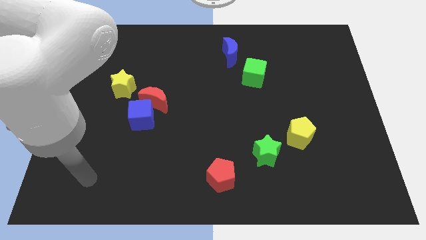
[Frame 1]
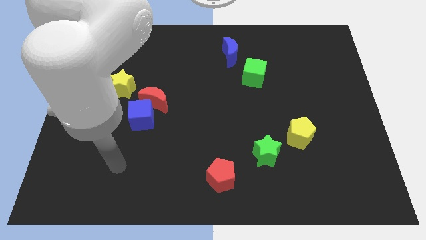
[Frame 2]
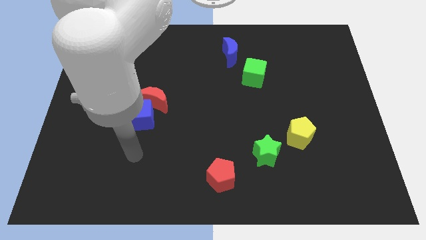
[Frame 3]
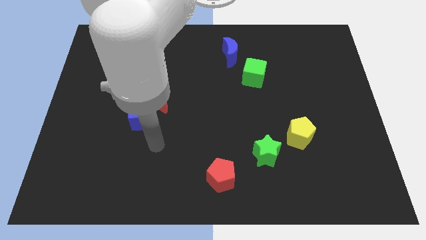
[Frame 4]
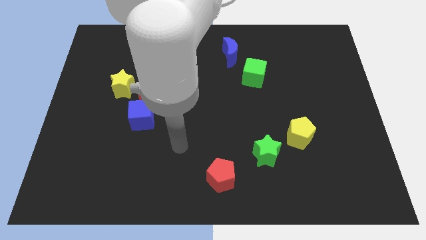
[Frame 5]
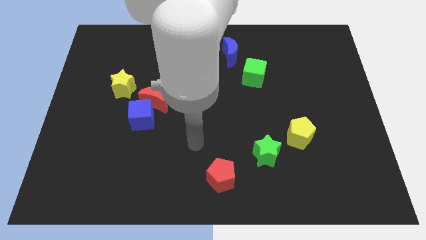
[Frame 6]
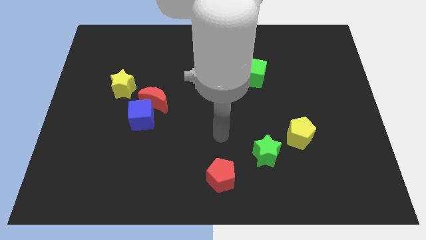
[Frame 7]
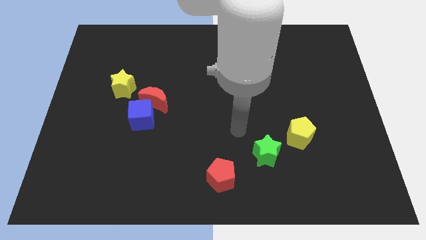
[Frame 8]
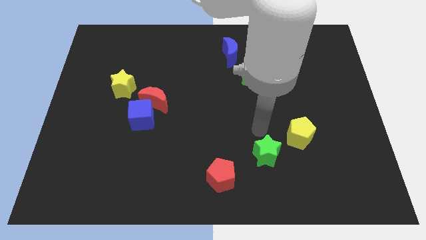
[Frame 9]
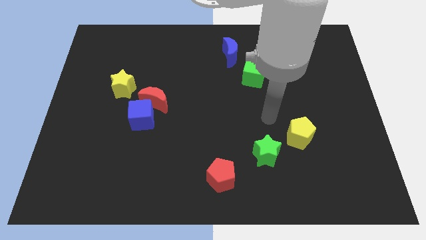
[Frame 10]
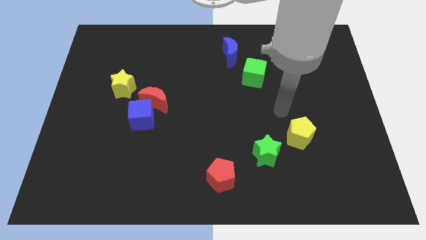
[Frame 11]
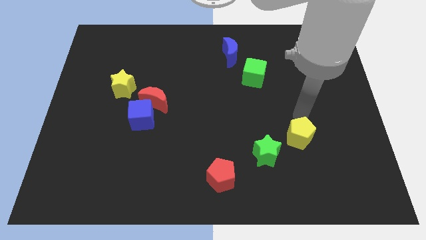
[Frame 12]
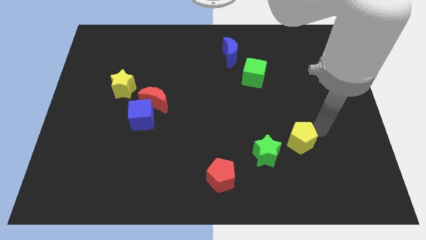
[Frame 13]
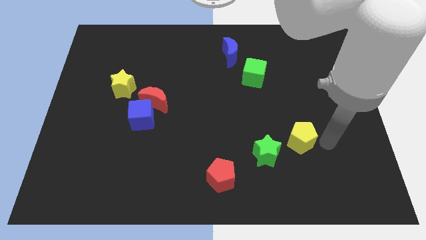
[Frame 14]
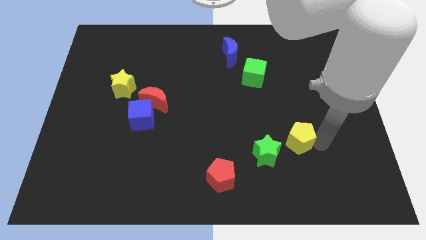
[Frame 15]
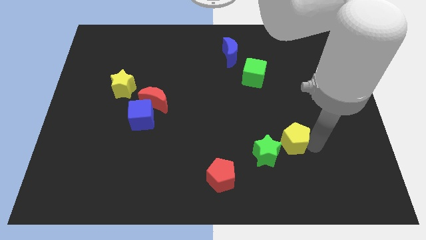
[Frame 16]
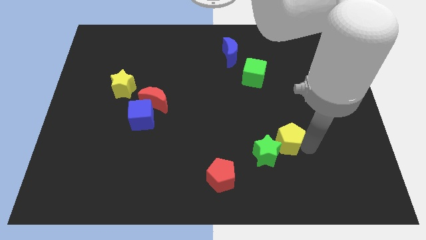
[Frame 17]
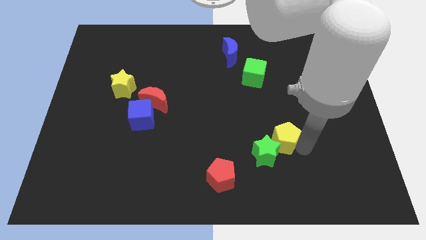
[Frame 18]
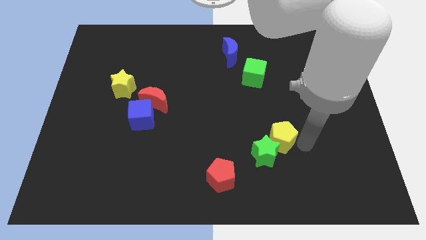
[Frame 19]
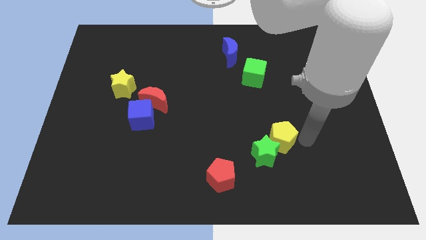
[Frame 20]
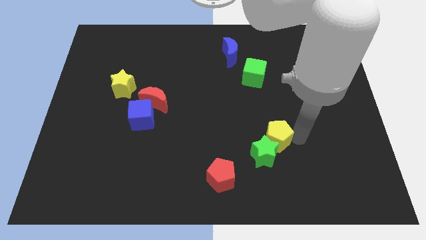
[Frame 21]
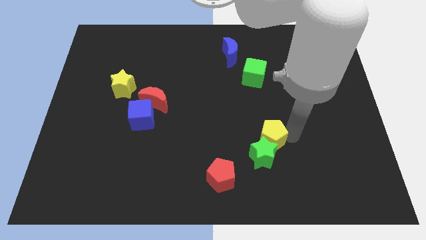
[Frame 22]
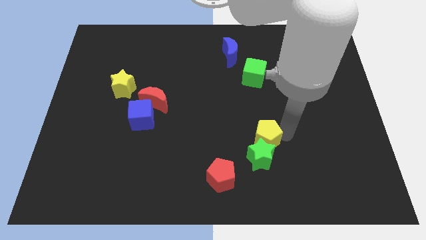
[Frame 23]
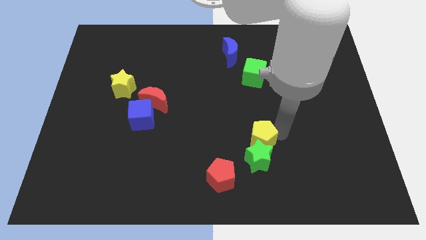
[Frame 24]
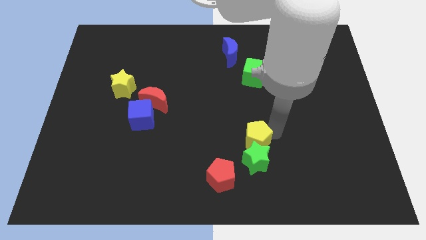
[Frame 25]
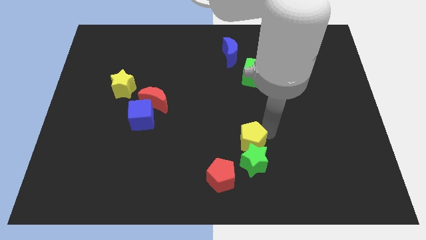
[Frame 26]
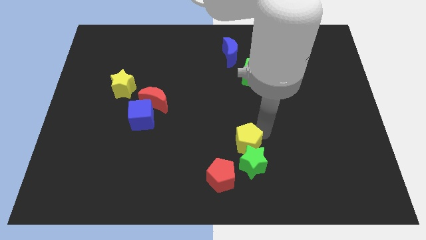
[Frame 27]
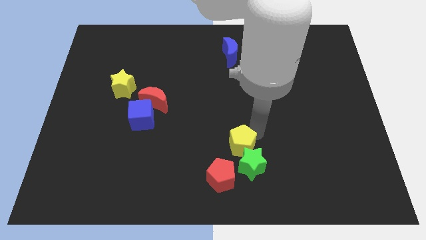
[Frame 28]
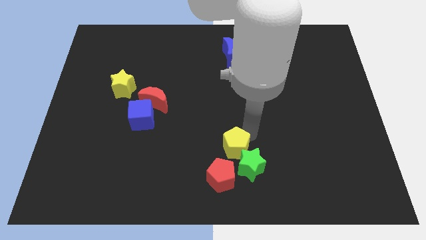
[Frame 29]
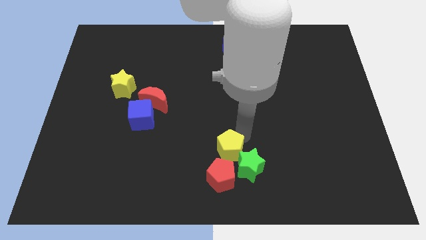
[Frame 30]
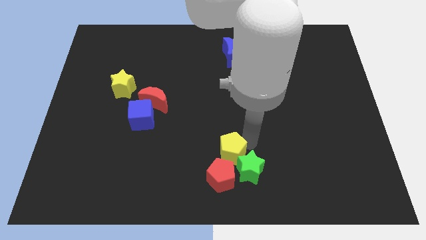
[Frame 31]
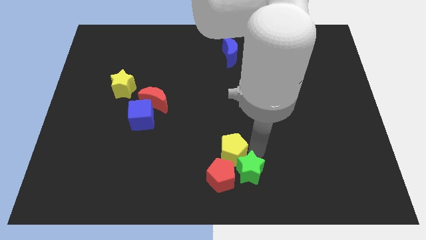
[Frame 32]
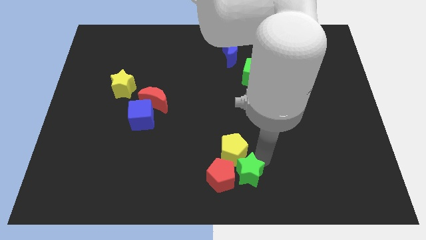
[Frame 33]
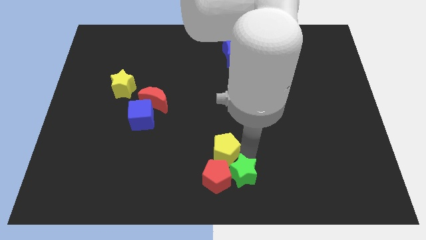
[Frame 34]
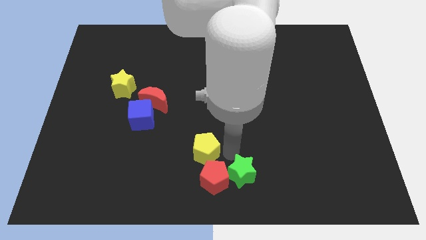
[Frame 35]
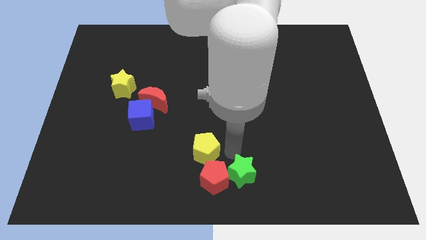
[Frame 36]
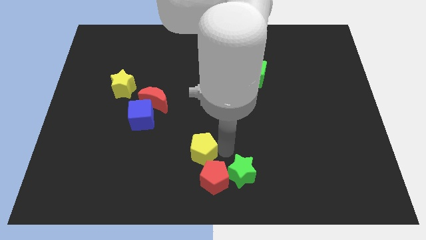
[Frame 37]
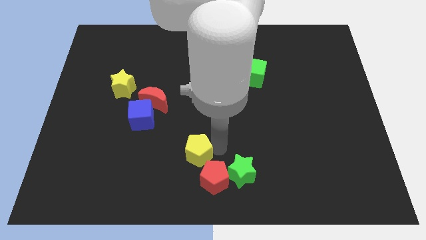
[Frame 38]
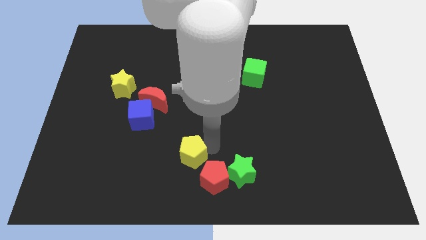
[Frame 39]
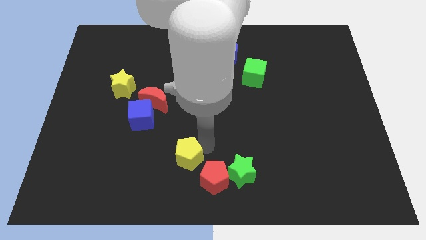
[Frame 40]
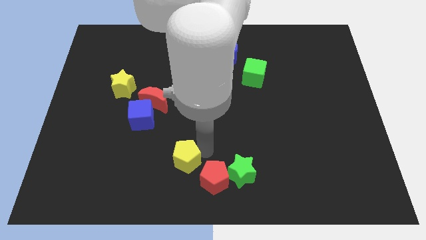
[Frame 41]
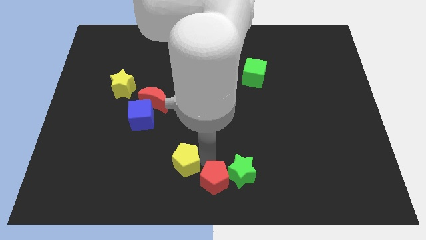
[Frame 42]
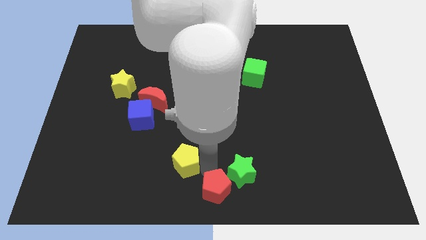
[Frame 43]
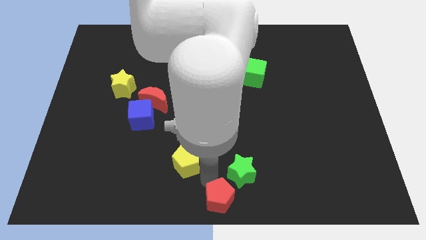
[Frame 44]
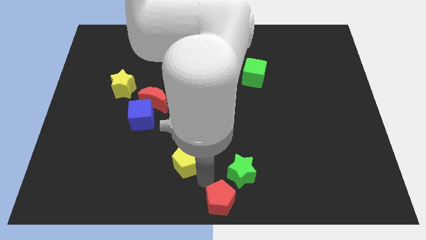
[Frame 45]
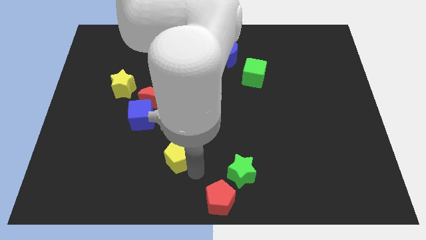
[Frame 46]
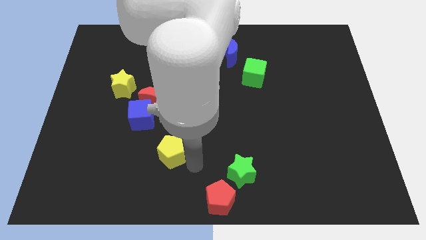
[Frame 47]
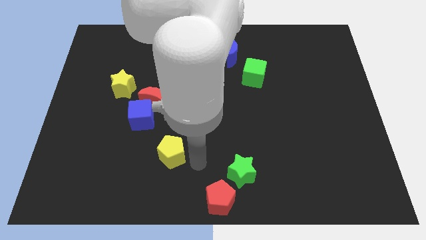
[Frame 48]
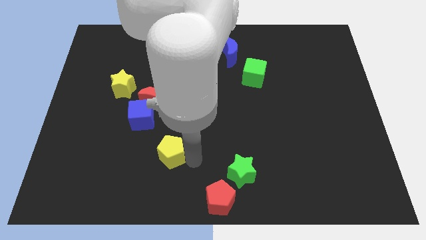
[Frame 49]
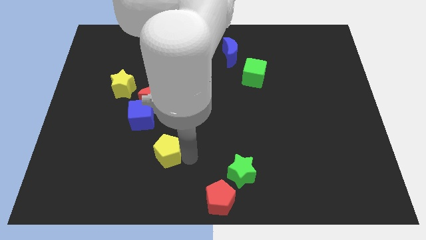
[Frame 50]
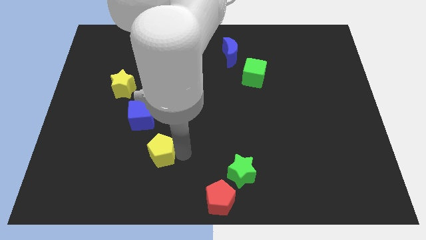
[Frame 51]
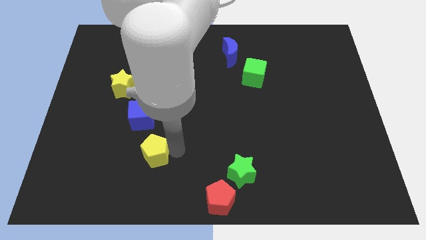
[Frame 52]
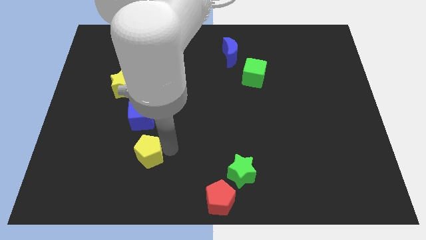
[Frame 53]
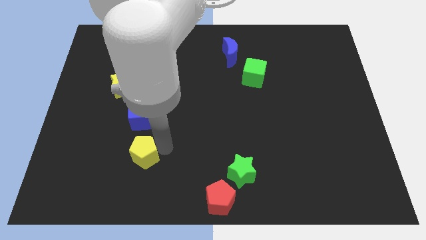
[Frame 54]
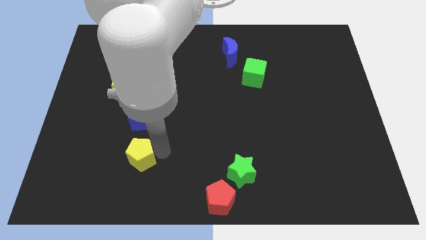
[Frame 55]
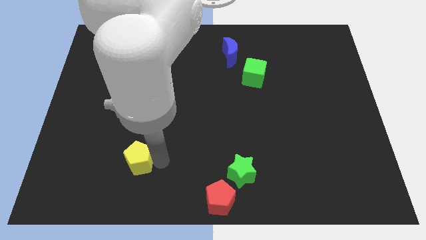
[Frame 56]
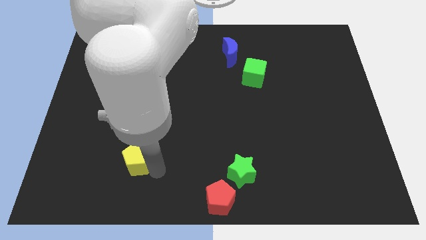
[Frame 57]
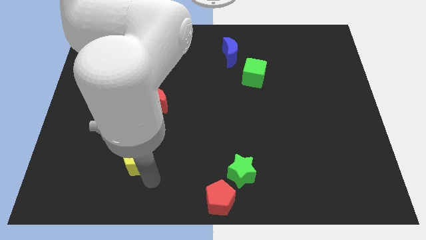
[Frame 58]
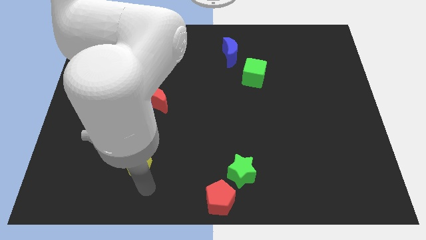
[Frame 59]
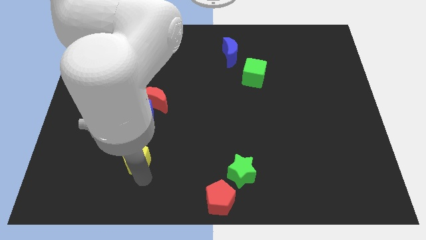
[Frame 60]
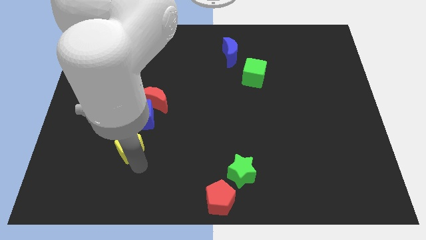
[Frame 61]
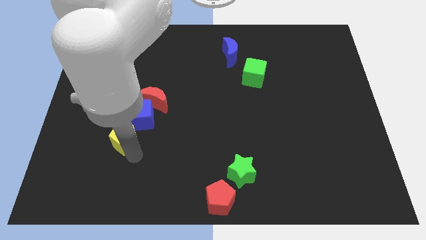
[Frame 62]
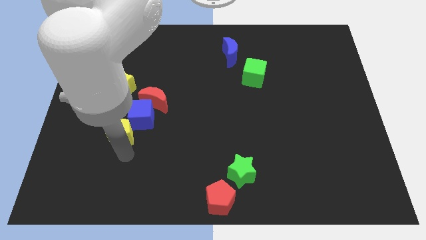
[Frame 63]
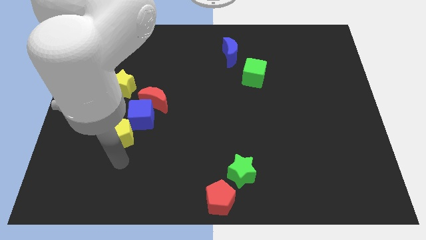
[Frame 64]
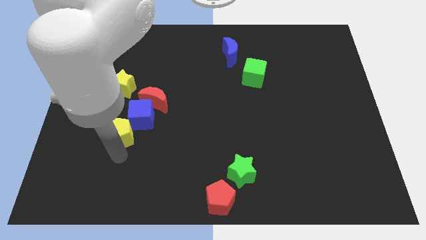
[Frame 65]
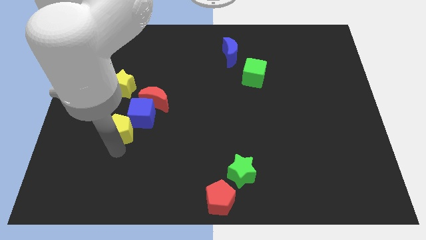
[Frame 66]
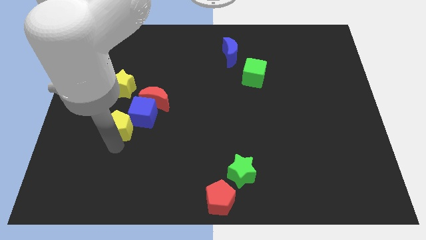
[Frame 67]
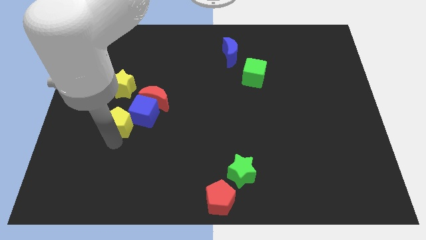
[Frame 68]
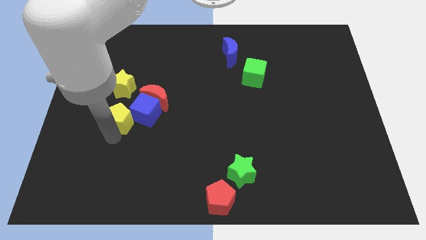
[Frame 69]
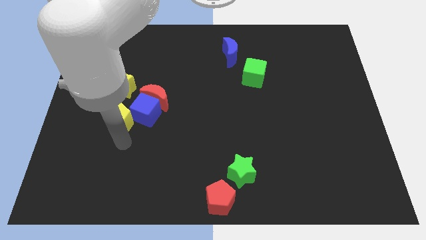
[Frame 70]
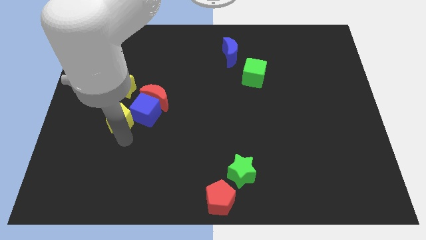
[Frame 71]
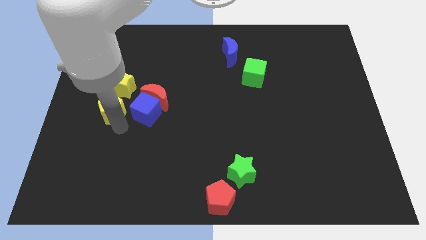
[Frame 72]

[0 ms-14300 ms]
put the yellow pentagon left of the red moon

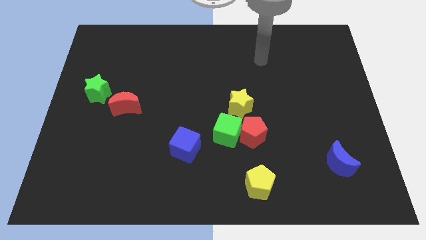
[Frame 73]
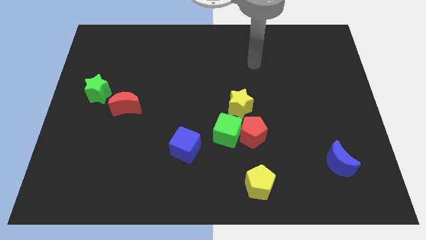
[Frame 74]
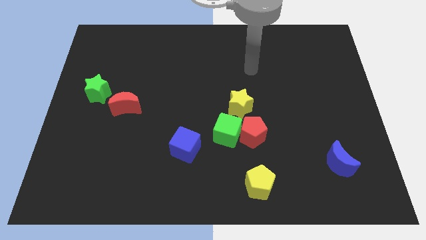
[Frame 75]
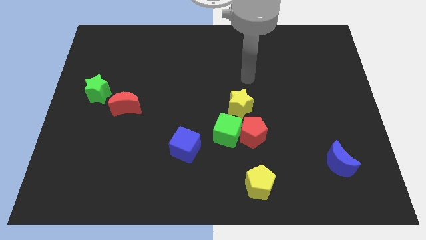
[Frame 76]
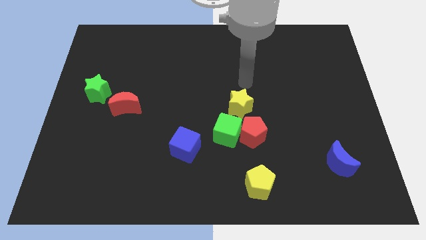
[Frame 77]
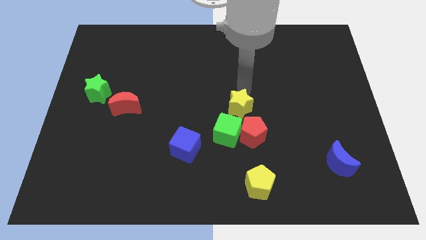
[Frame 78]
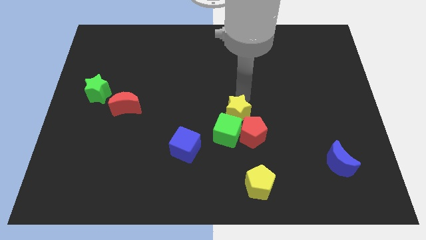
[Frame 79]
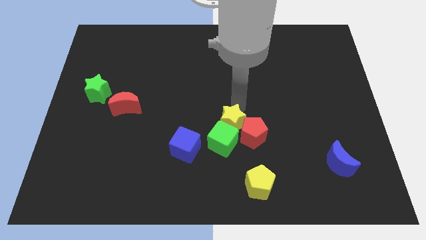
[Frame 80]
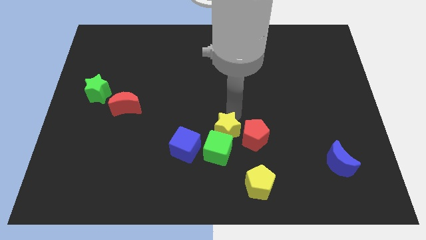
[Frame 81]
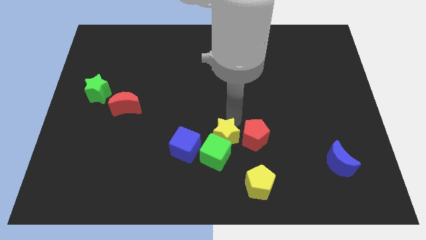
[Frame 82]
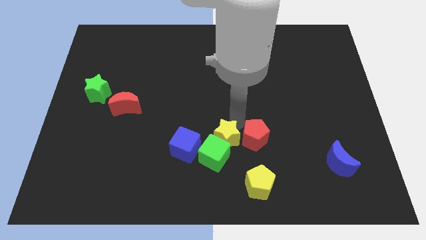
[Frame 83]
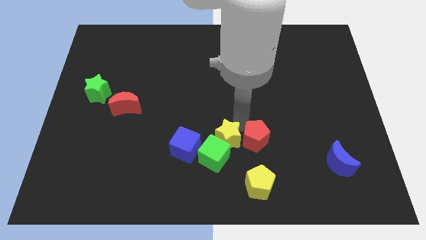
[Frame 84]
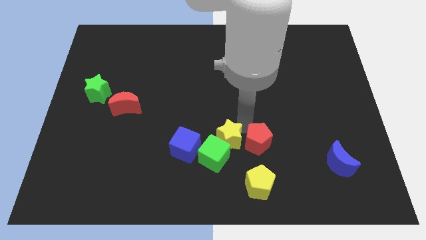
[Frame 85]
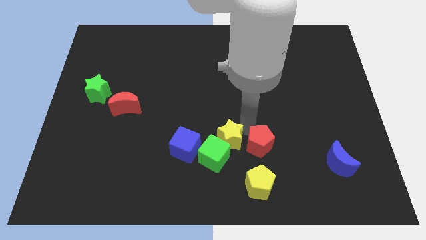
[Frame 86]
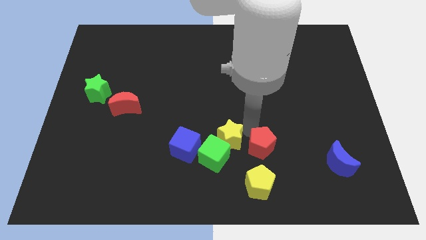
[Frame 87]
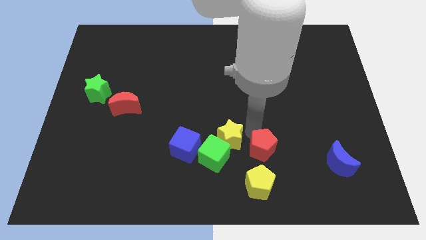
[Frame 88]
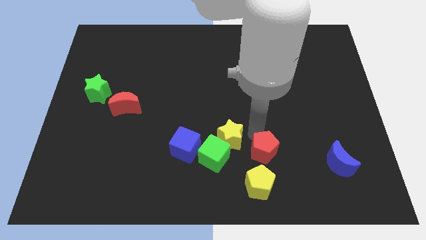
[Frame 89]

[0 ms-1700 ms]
put the red pentagon diagonally up and to the right of the yellow pentagon
